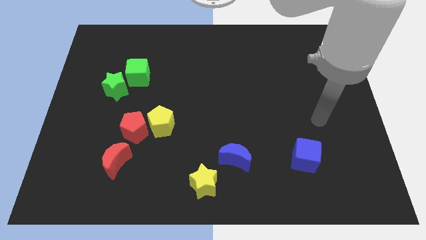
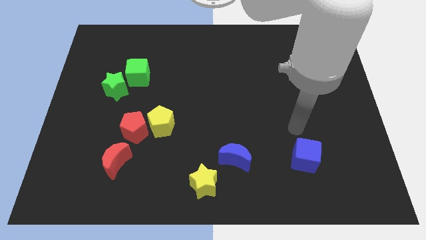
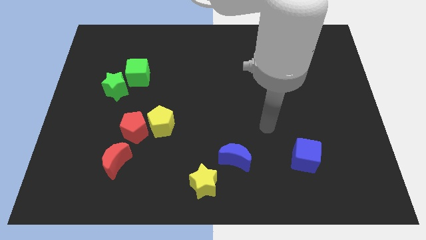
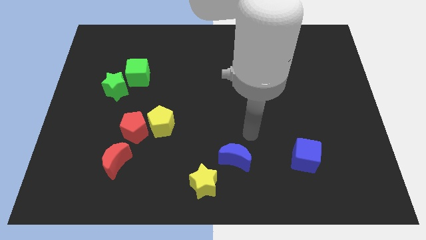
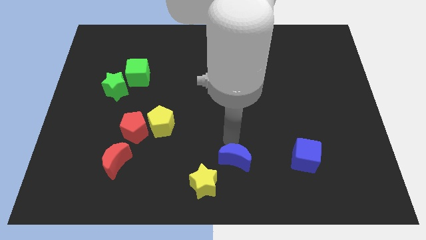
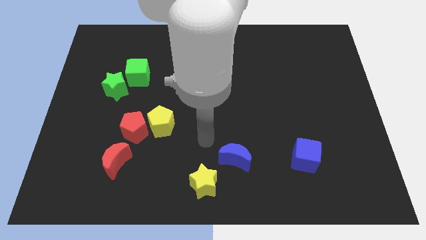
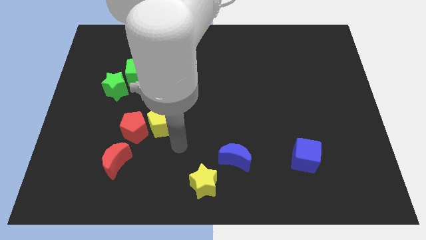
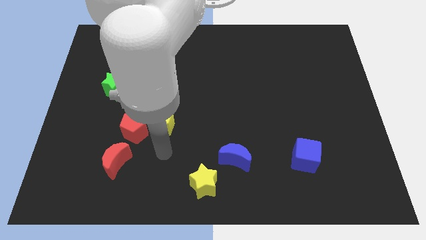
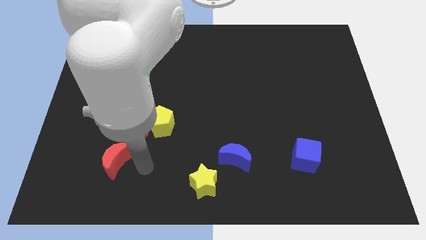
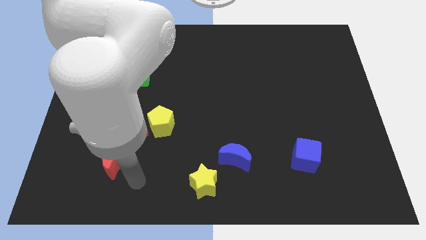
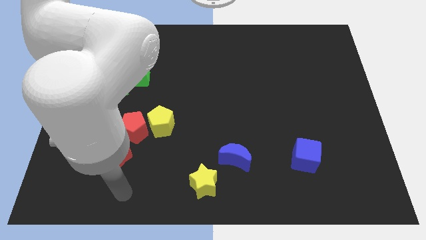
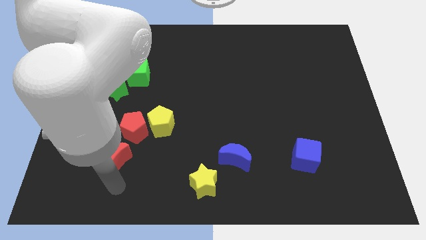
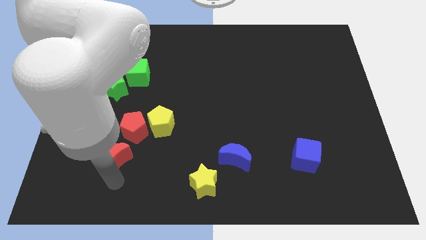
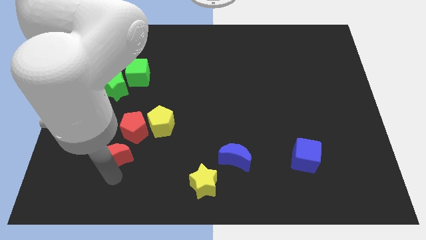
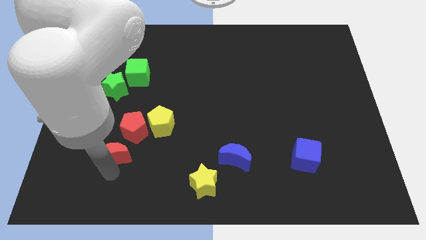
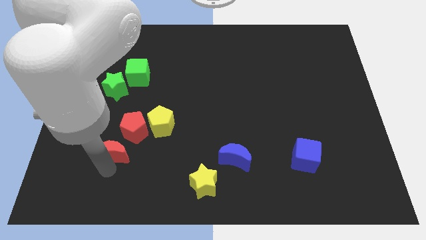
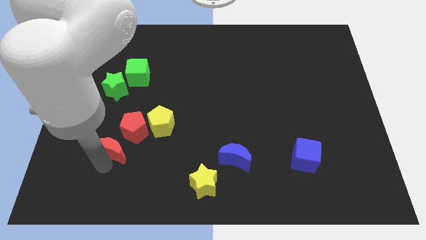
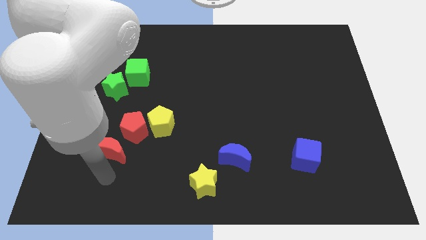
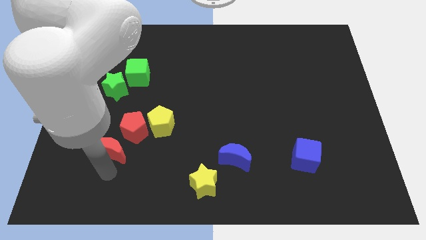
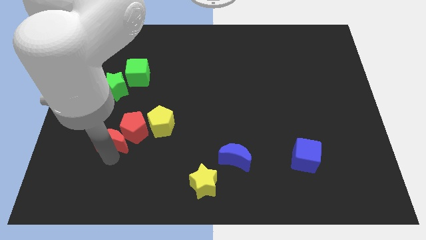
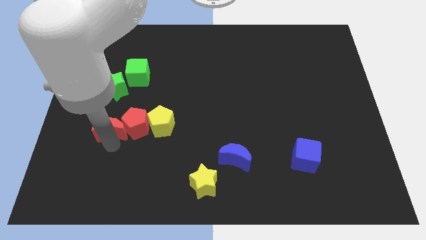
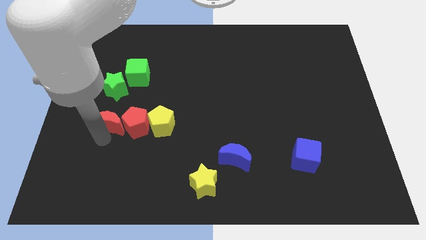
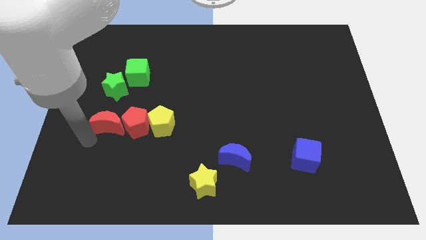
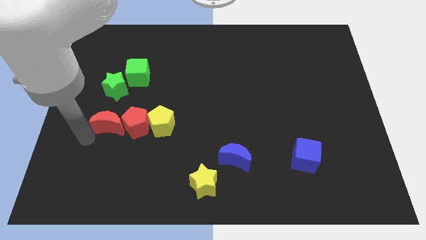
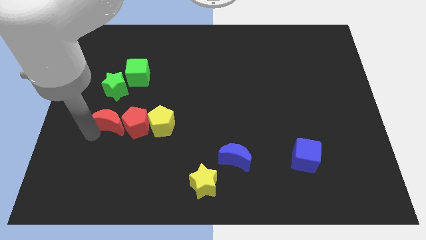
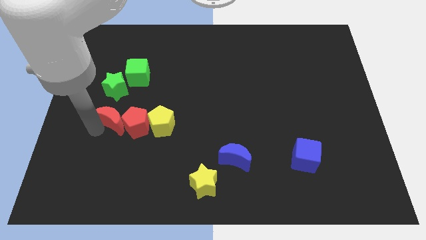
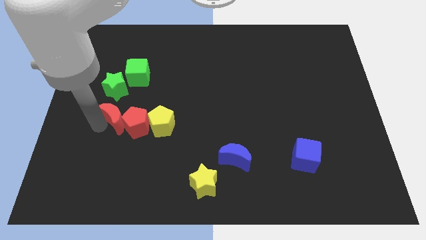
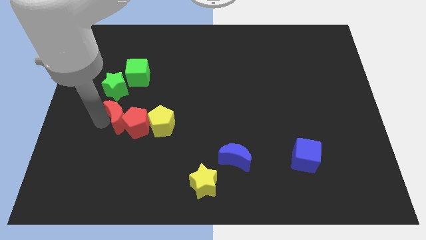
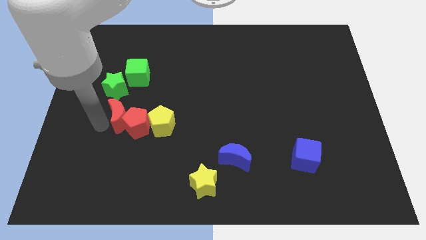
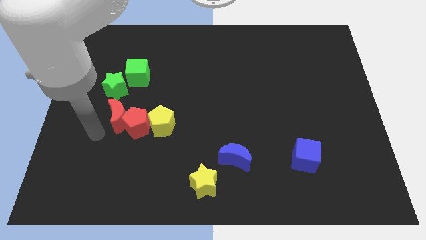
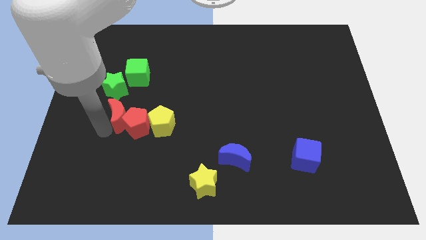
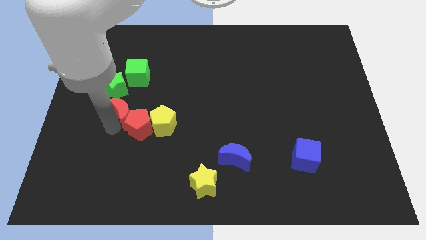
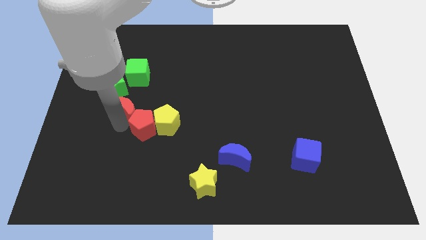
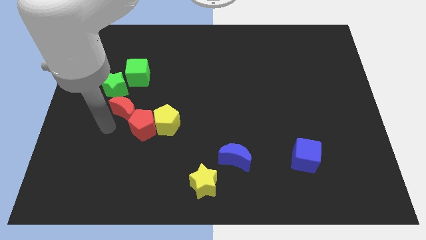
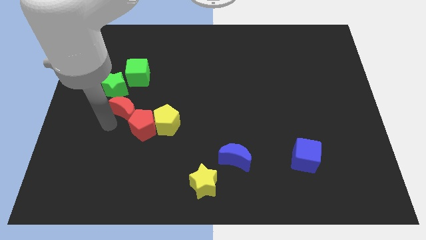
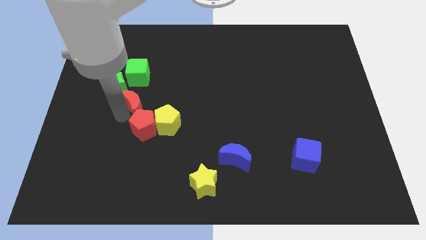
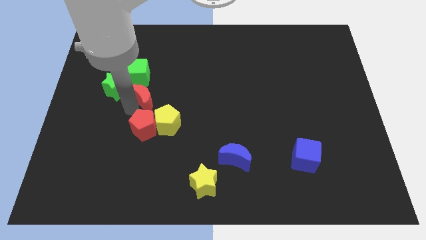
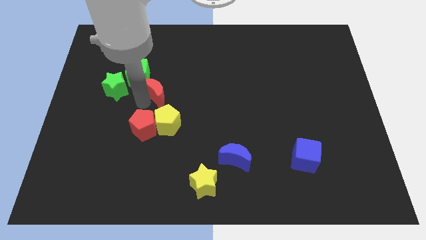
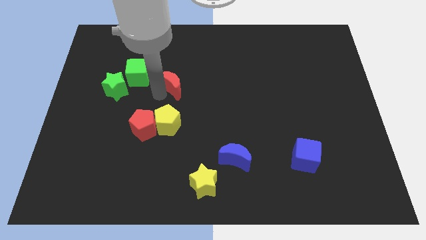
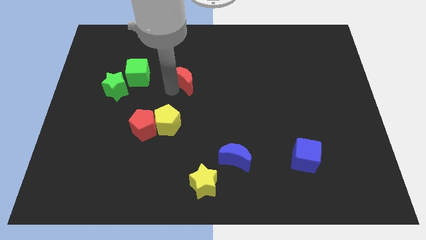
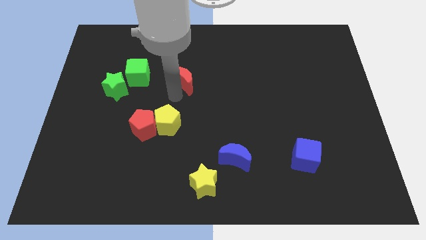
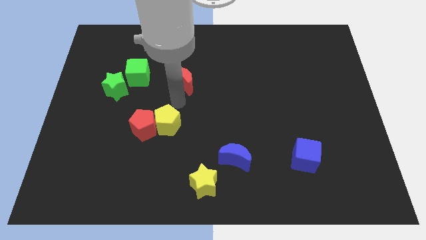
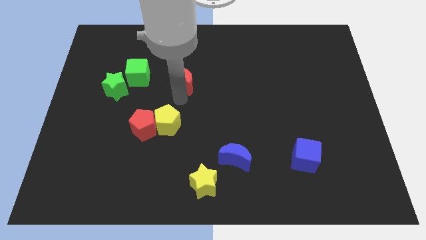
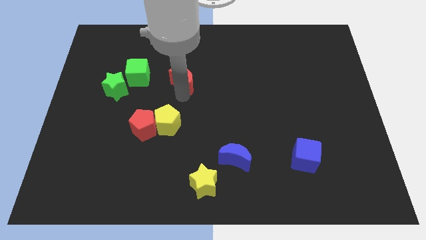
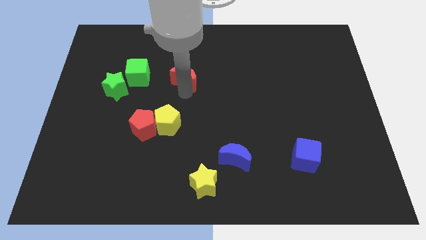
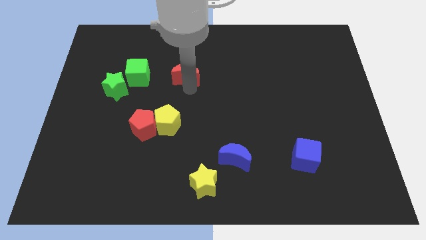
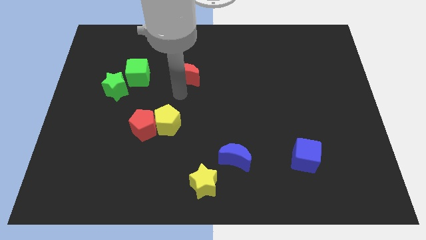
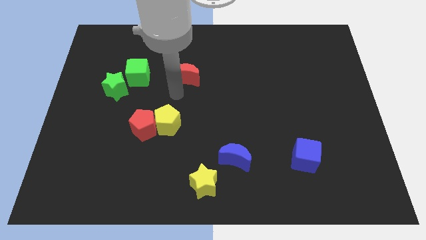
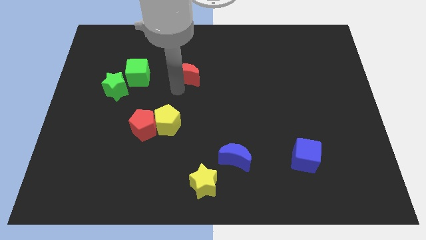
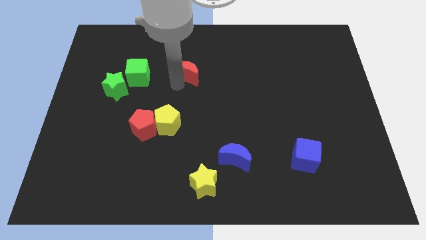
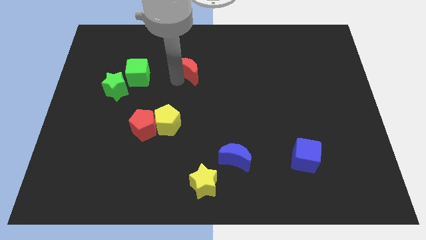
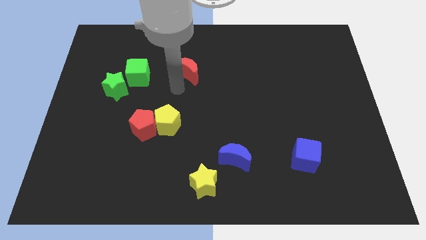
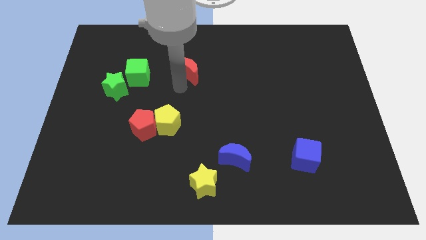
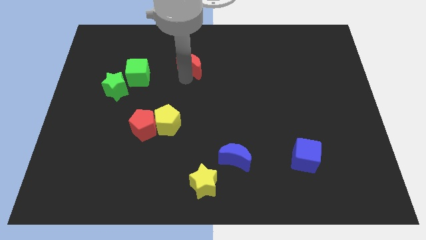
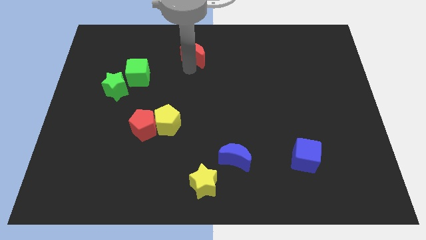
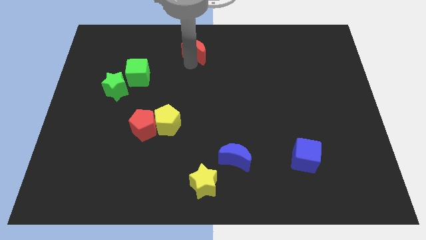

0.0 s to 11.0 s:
move the red moon to the towards your base
